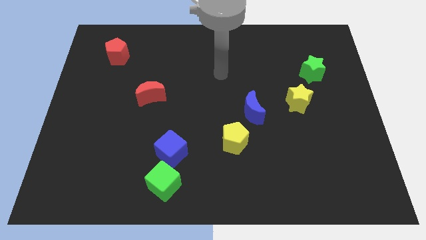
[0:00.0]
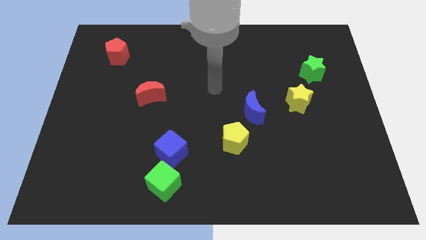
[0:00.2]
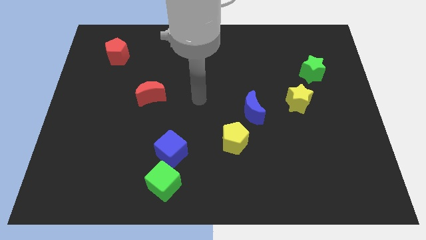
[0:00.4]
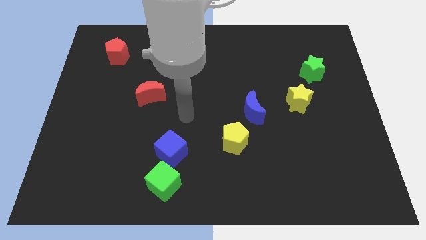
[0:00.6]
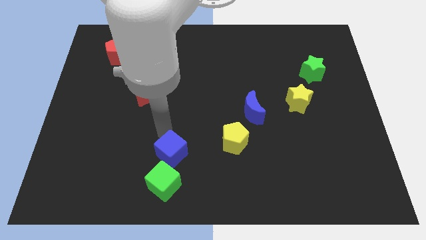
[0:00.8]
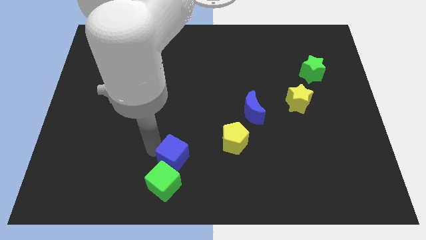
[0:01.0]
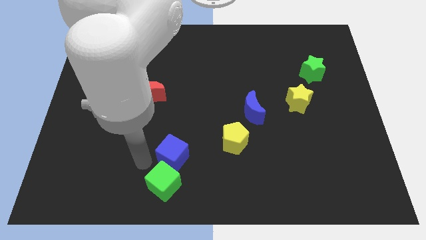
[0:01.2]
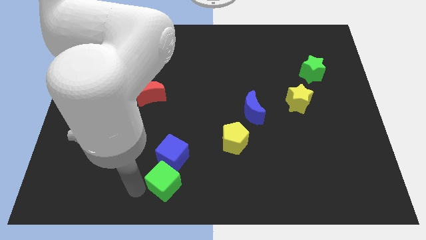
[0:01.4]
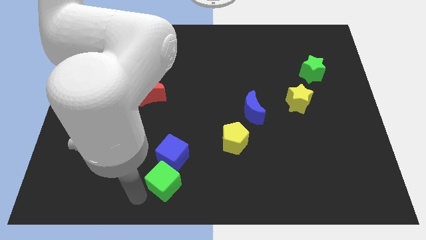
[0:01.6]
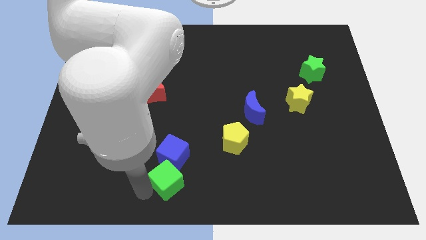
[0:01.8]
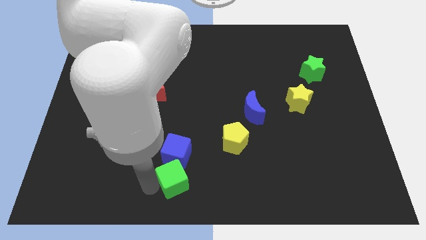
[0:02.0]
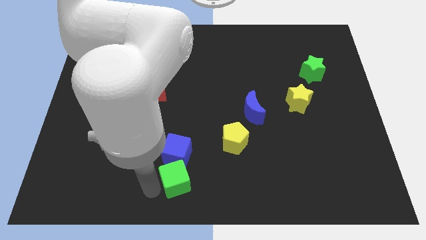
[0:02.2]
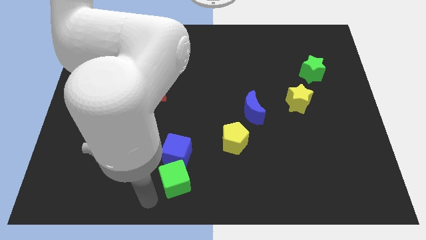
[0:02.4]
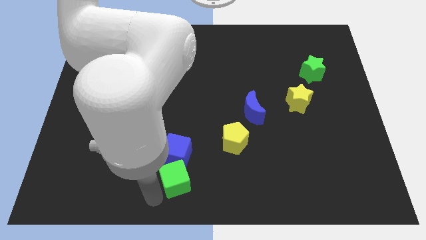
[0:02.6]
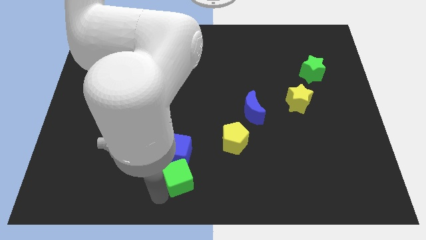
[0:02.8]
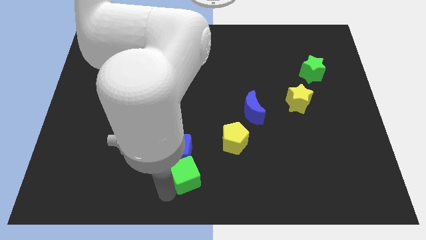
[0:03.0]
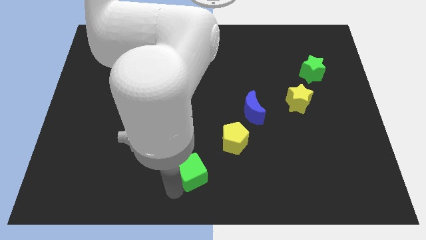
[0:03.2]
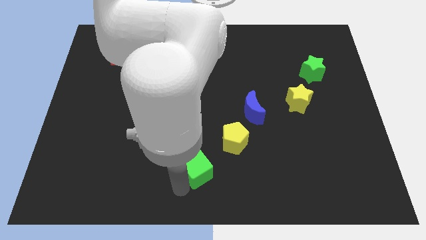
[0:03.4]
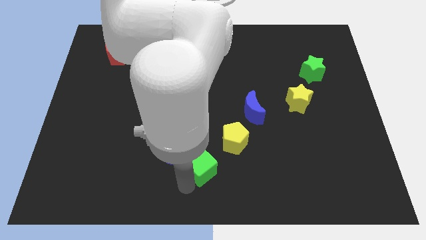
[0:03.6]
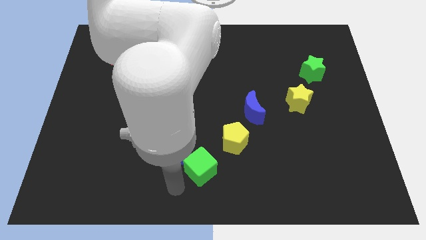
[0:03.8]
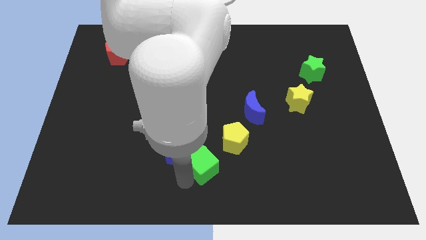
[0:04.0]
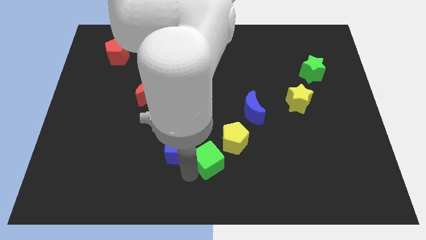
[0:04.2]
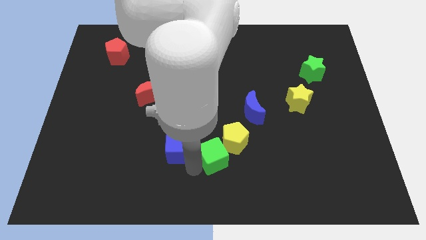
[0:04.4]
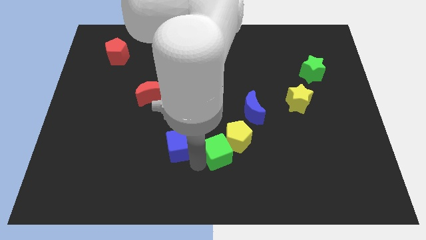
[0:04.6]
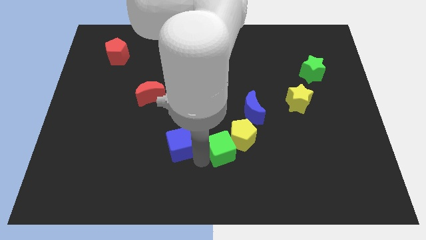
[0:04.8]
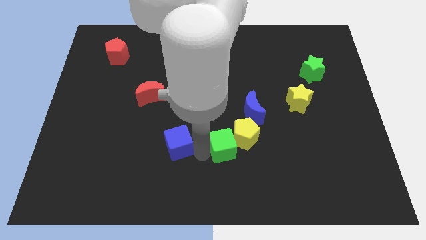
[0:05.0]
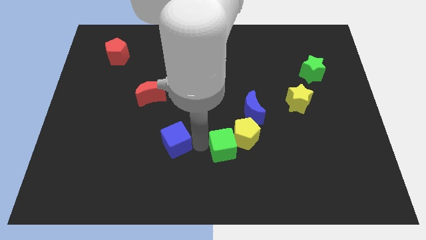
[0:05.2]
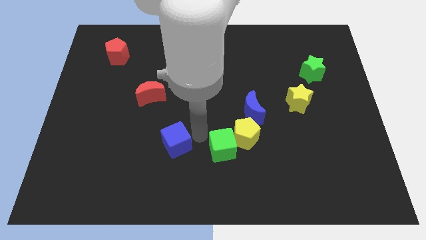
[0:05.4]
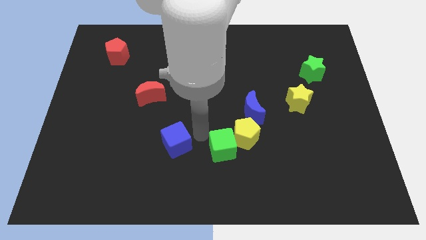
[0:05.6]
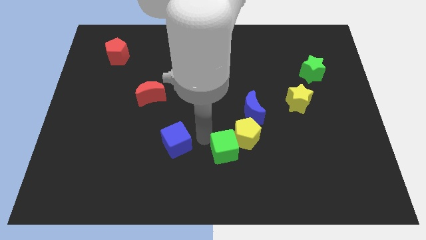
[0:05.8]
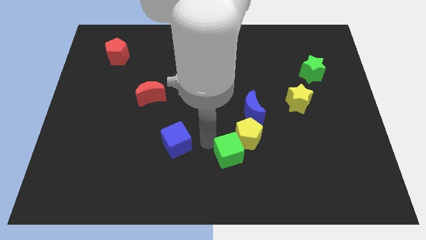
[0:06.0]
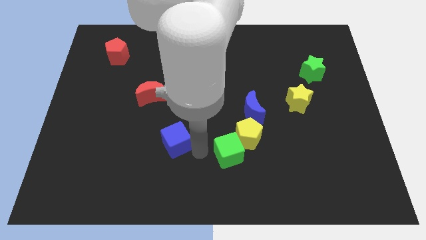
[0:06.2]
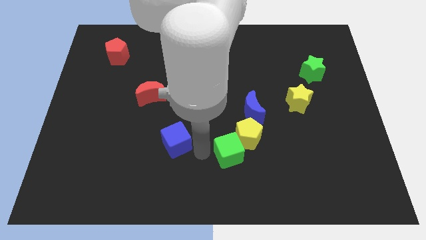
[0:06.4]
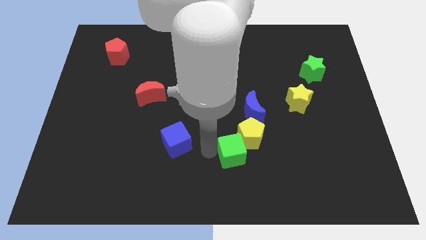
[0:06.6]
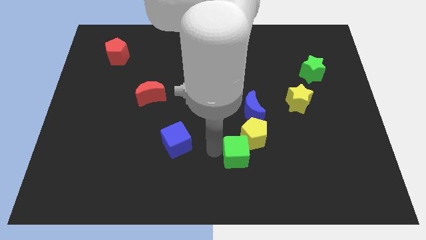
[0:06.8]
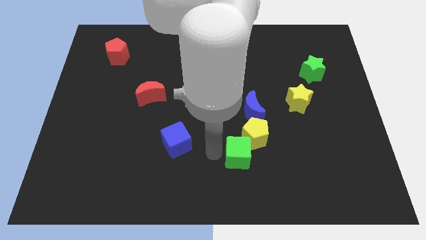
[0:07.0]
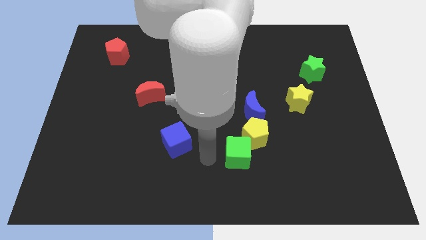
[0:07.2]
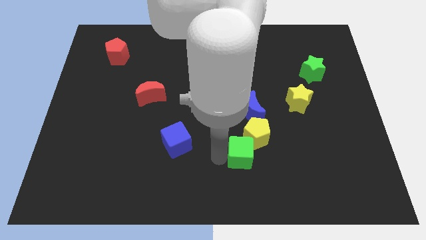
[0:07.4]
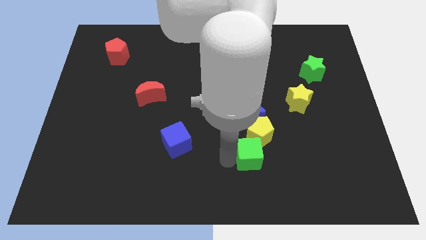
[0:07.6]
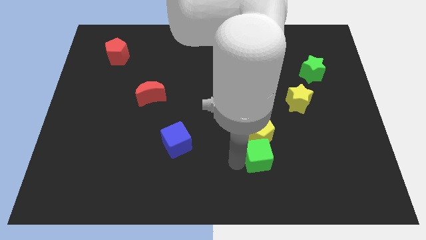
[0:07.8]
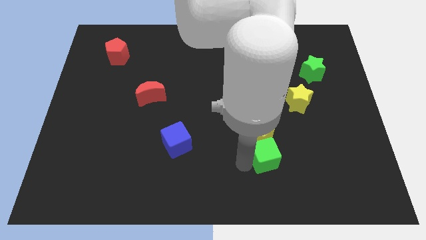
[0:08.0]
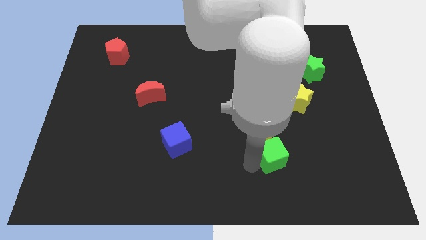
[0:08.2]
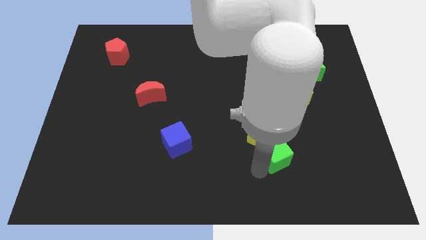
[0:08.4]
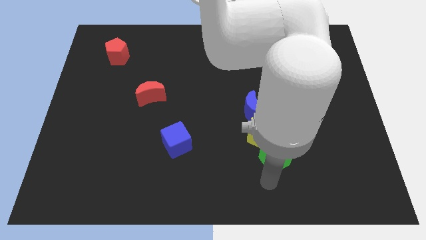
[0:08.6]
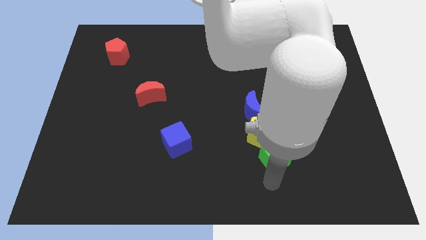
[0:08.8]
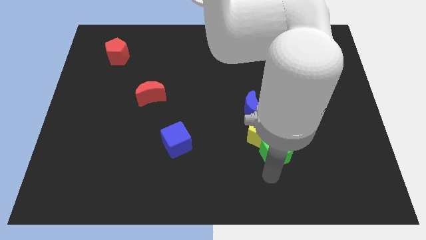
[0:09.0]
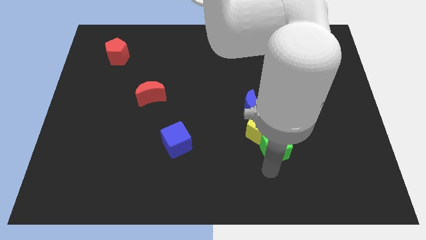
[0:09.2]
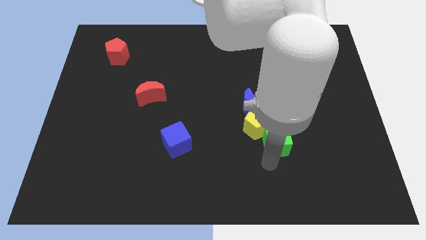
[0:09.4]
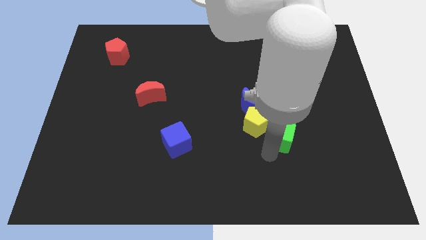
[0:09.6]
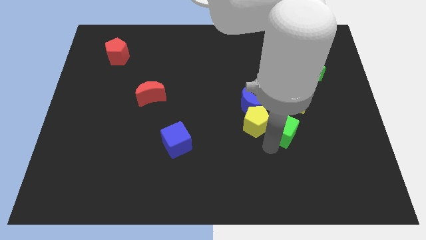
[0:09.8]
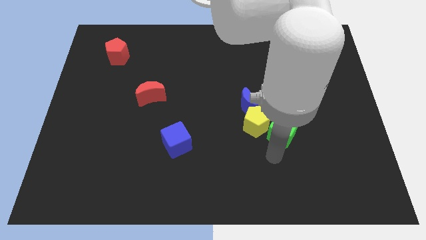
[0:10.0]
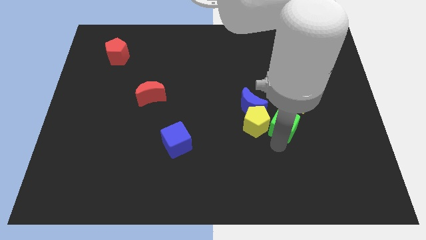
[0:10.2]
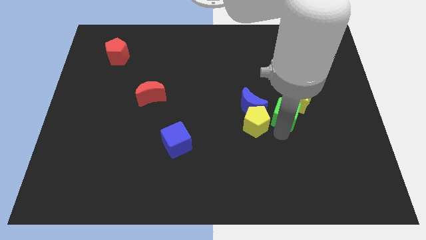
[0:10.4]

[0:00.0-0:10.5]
push the green cube to the yellow star
